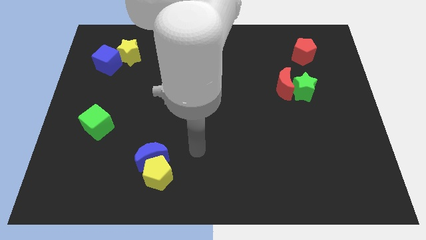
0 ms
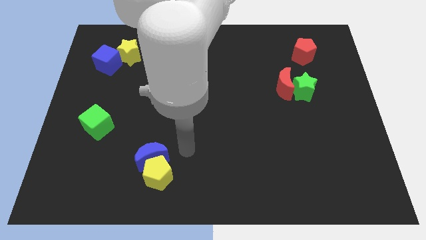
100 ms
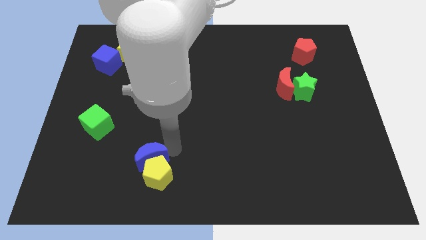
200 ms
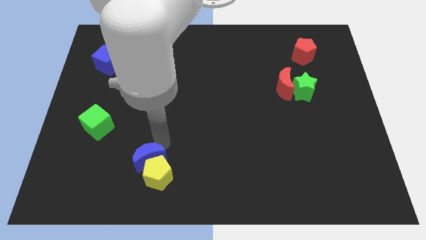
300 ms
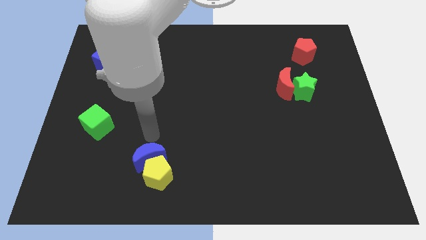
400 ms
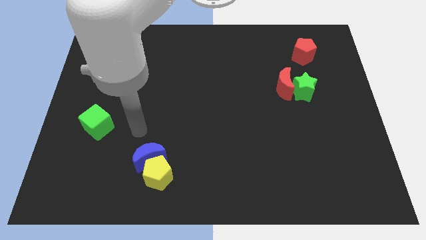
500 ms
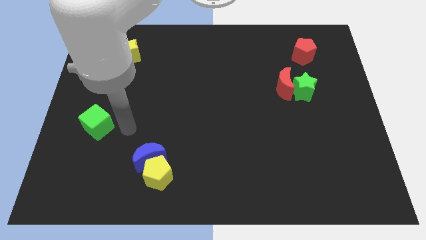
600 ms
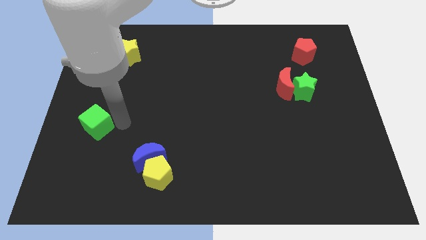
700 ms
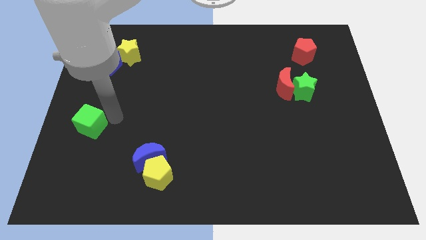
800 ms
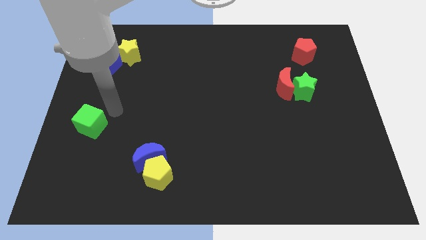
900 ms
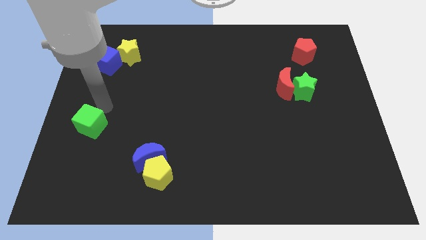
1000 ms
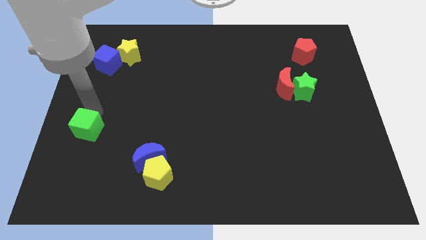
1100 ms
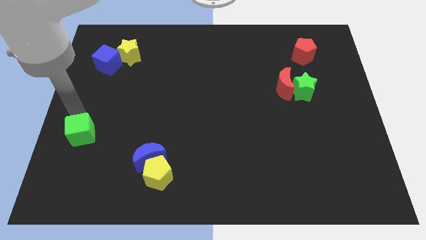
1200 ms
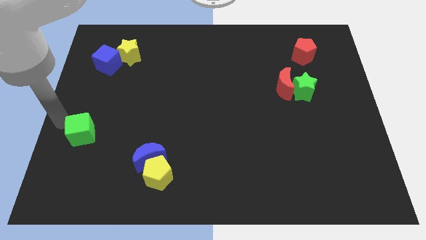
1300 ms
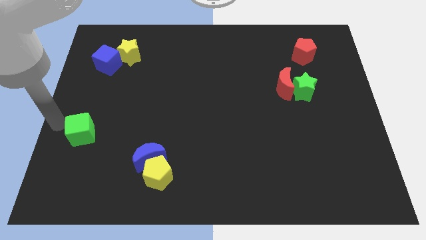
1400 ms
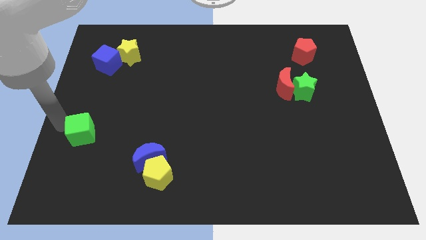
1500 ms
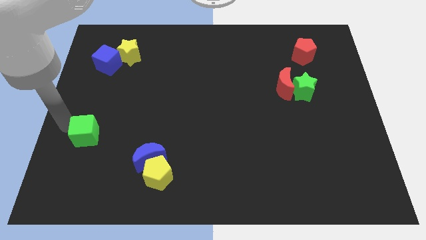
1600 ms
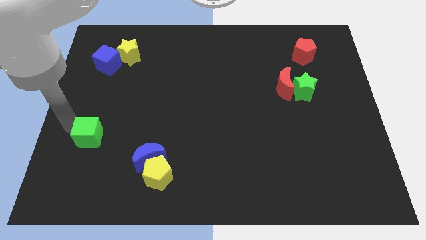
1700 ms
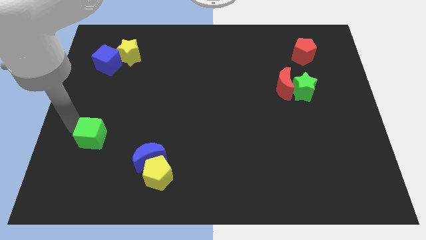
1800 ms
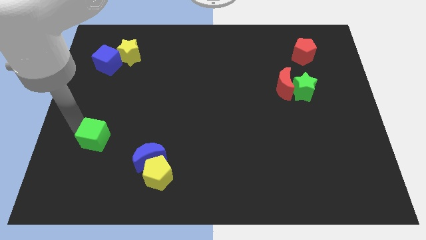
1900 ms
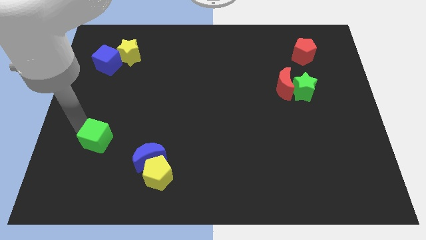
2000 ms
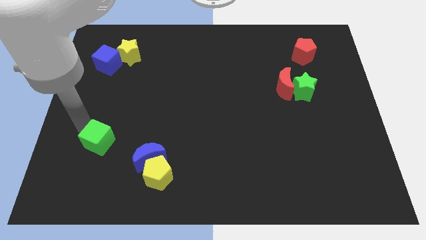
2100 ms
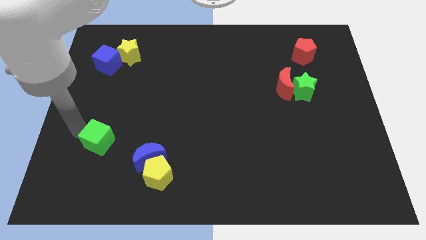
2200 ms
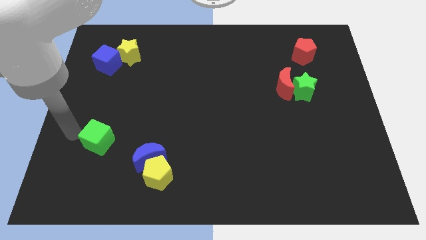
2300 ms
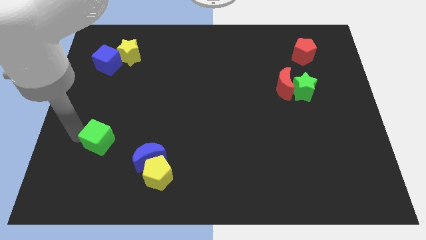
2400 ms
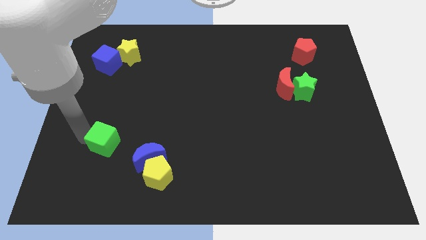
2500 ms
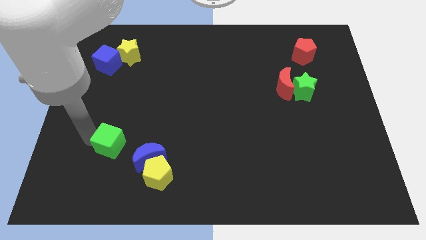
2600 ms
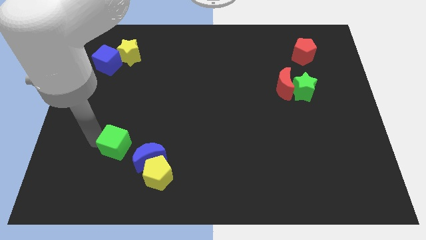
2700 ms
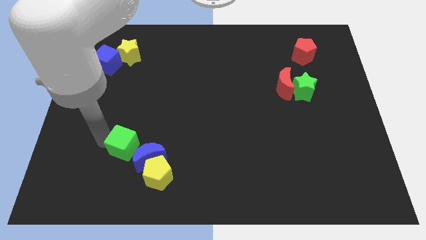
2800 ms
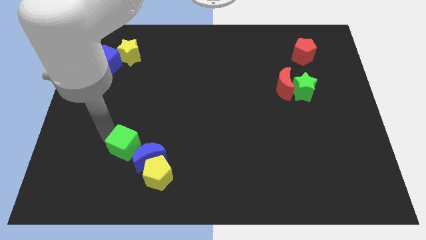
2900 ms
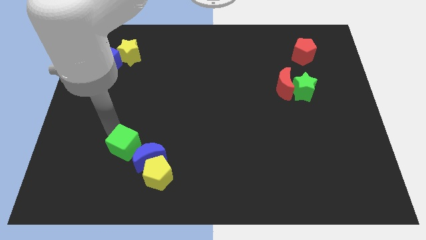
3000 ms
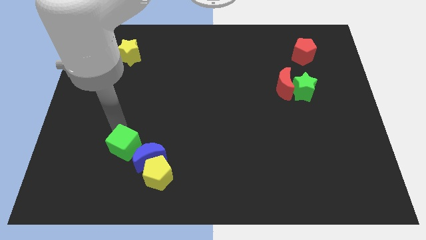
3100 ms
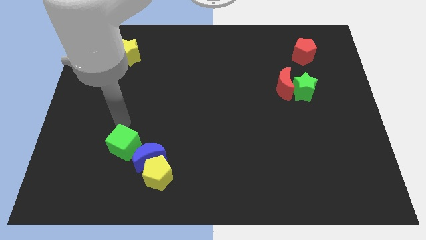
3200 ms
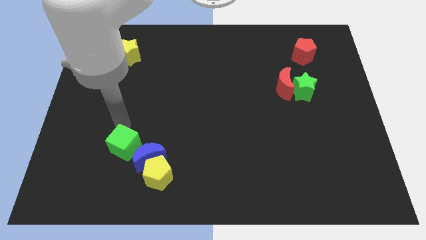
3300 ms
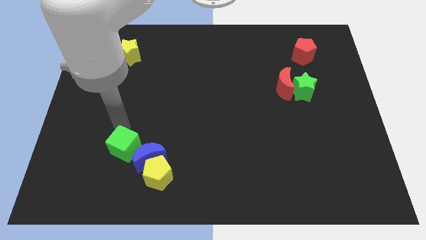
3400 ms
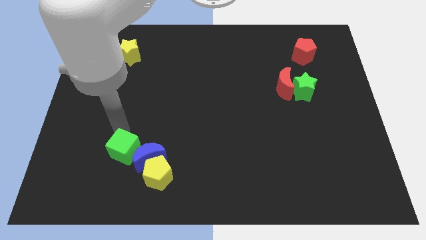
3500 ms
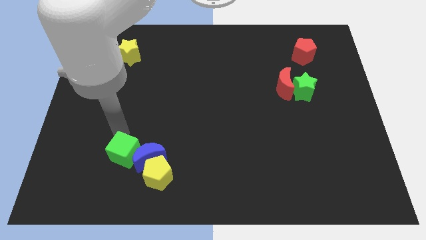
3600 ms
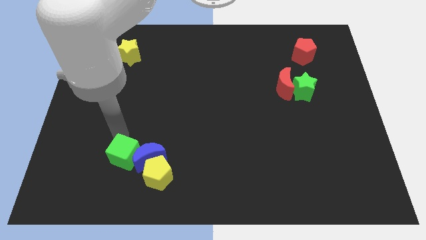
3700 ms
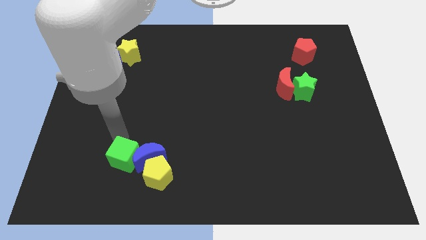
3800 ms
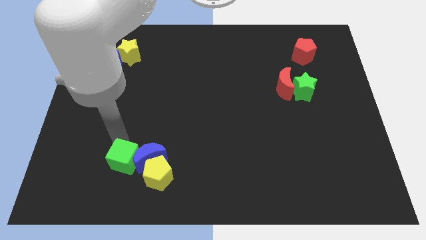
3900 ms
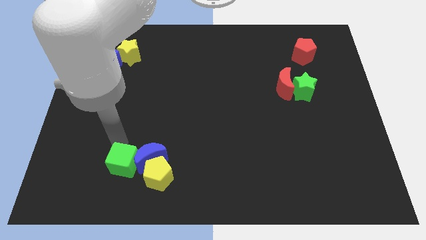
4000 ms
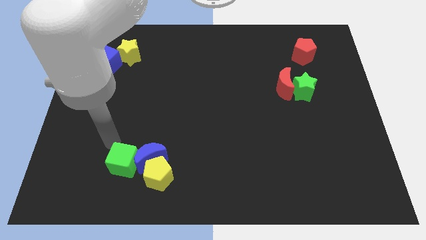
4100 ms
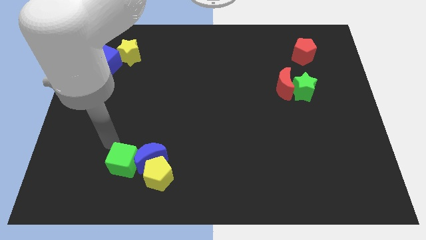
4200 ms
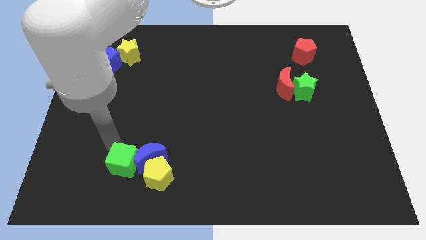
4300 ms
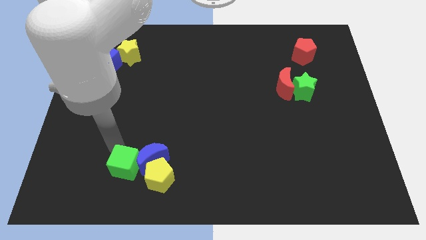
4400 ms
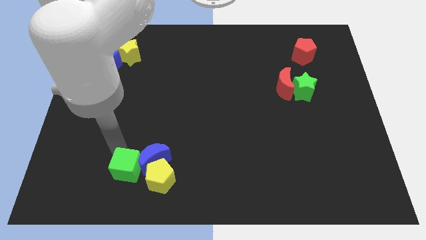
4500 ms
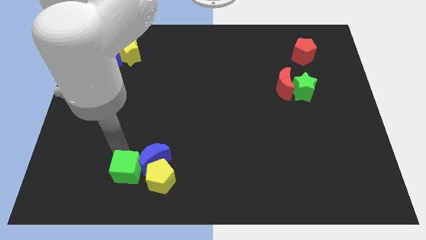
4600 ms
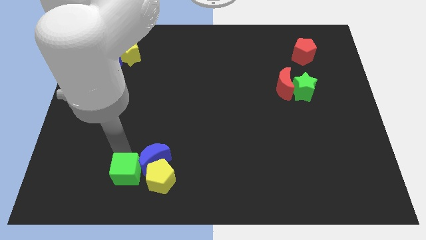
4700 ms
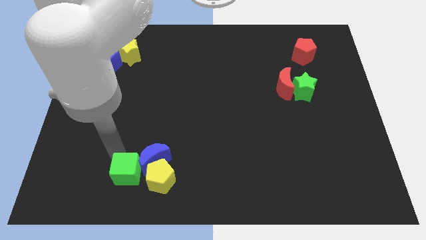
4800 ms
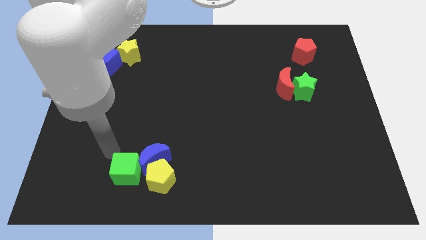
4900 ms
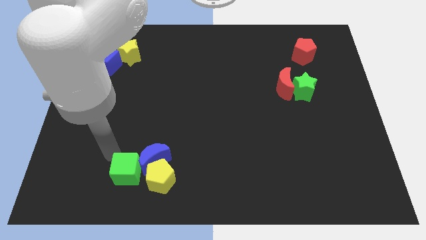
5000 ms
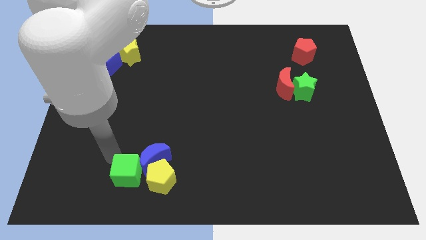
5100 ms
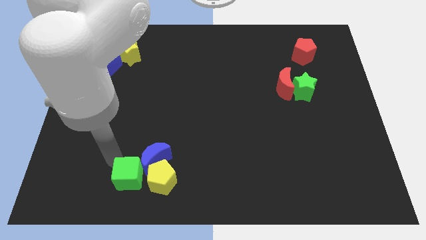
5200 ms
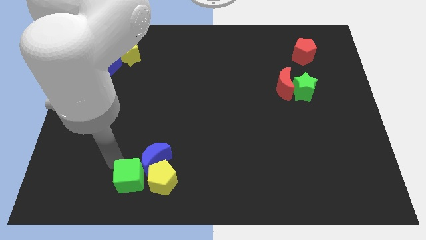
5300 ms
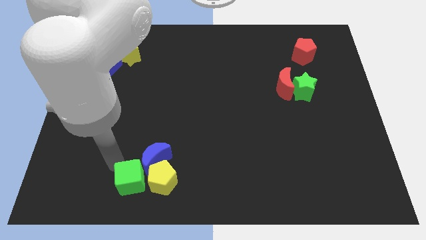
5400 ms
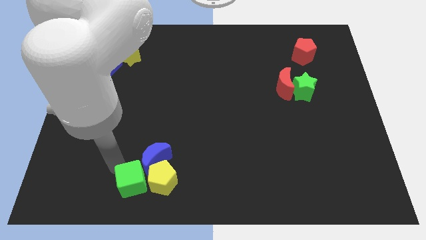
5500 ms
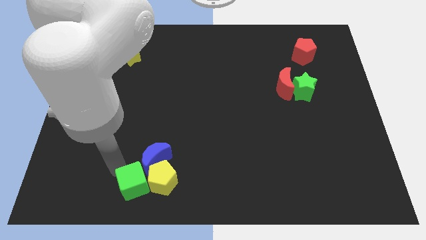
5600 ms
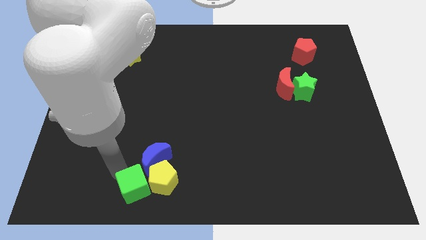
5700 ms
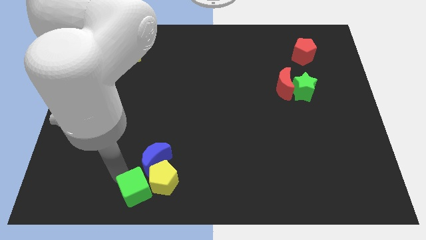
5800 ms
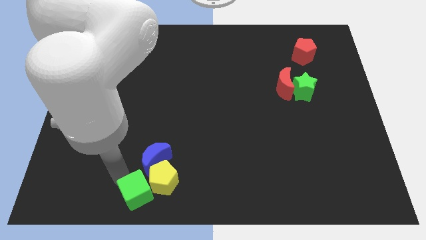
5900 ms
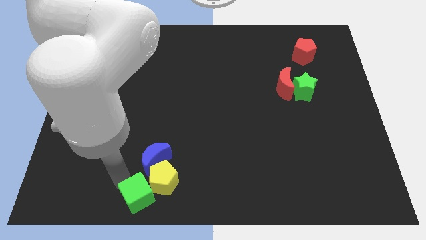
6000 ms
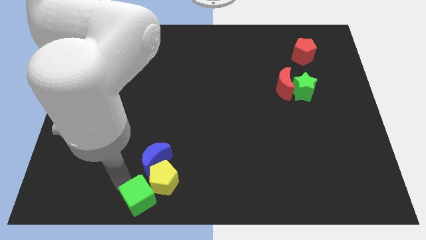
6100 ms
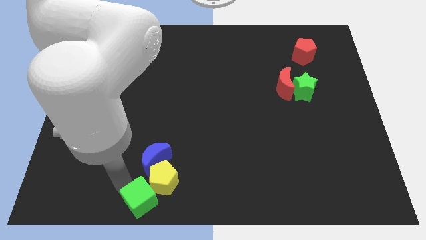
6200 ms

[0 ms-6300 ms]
put the green cube to the bottom
